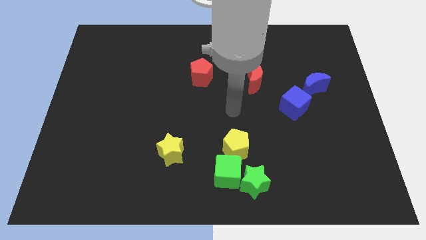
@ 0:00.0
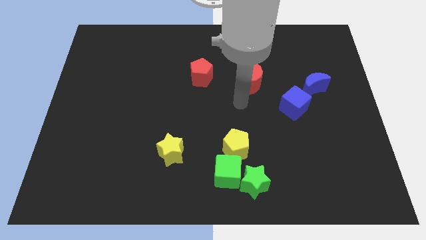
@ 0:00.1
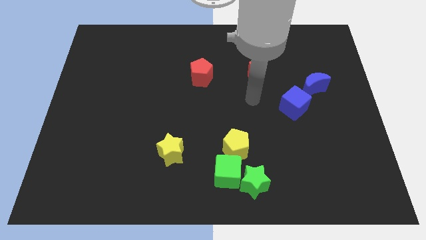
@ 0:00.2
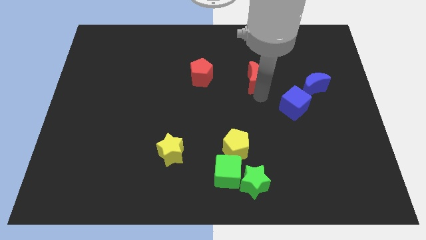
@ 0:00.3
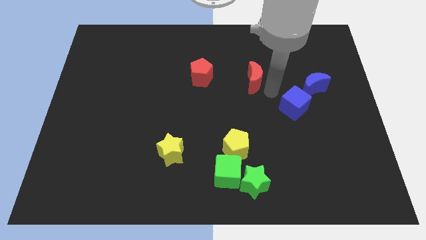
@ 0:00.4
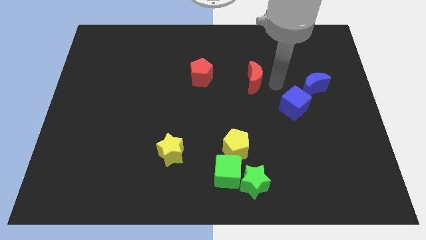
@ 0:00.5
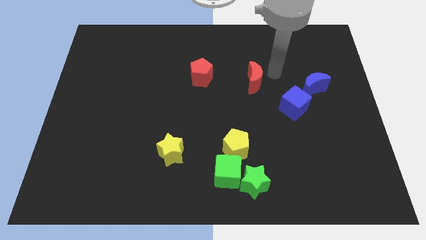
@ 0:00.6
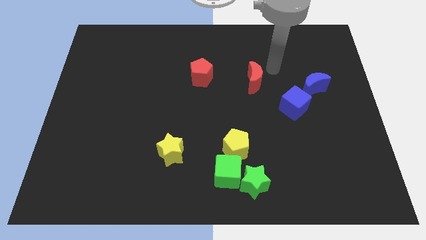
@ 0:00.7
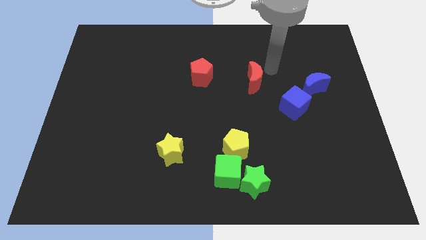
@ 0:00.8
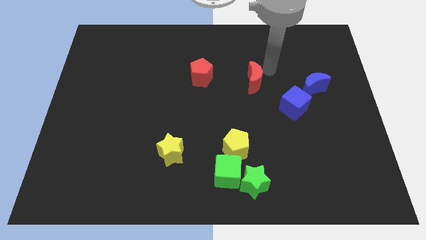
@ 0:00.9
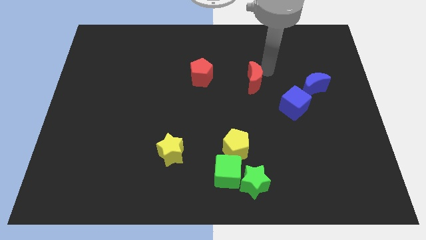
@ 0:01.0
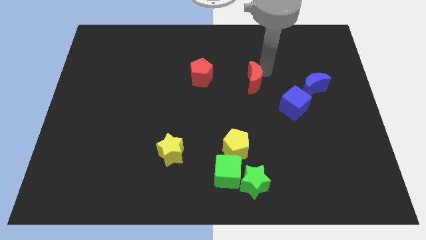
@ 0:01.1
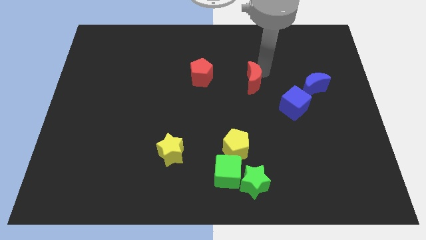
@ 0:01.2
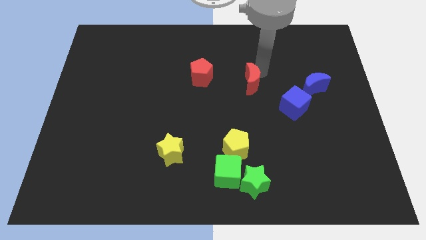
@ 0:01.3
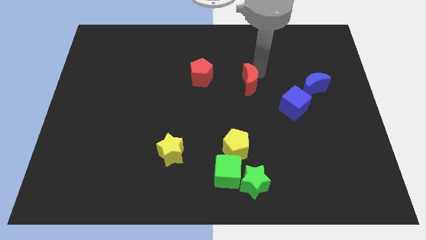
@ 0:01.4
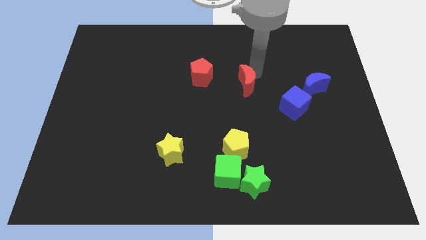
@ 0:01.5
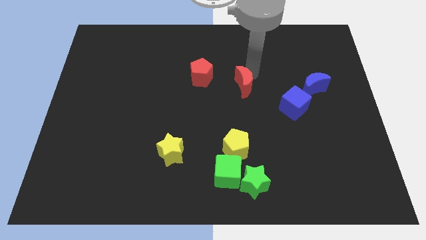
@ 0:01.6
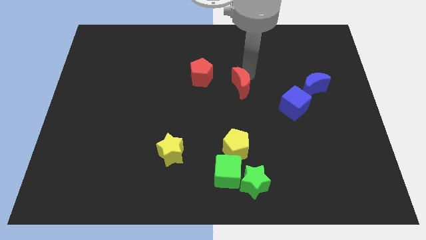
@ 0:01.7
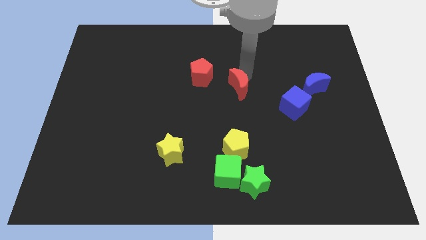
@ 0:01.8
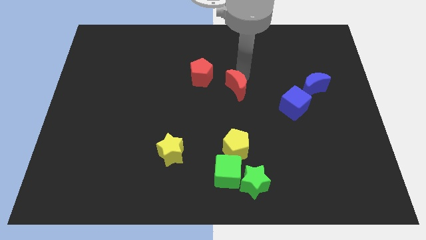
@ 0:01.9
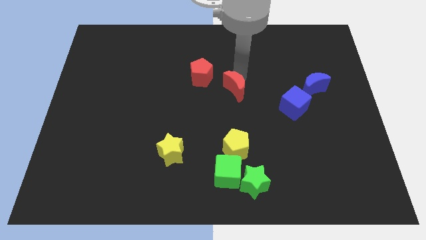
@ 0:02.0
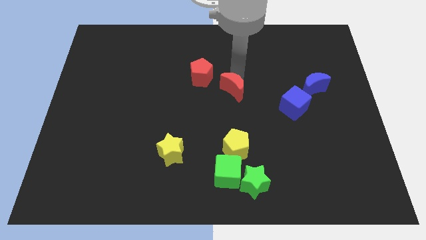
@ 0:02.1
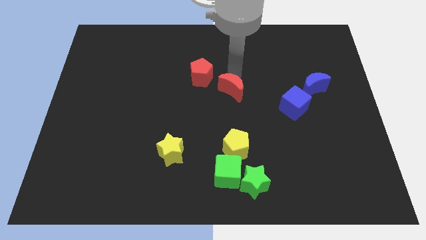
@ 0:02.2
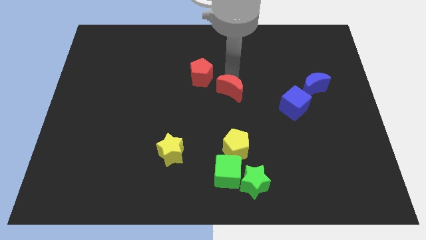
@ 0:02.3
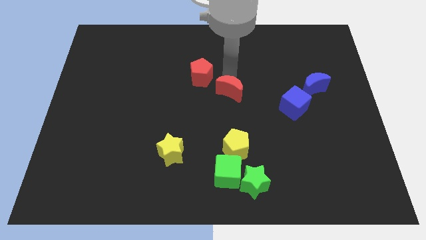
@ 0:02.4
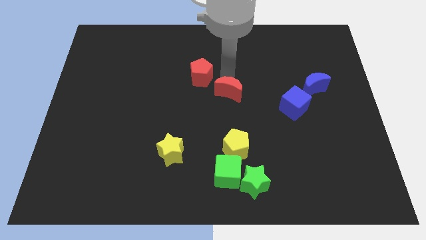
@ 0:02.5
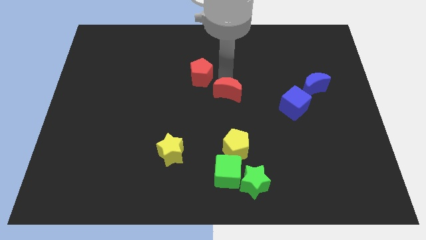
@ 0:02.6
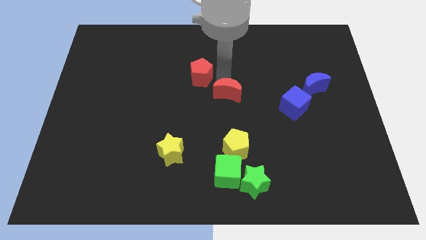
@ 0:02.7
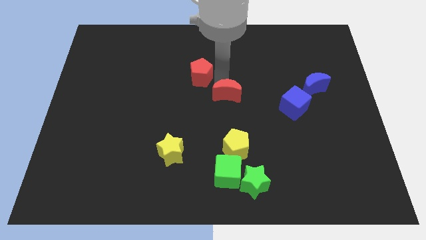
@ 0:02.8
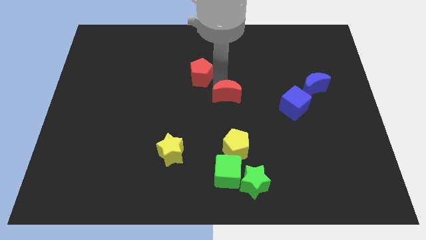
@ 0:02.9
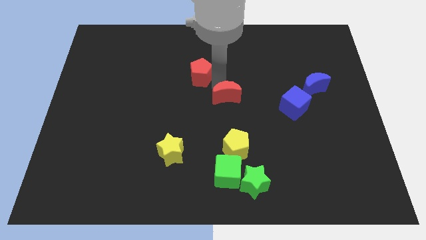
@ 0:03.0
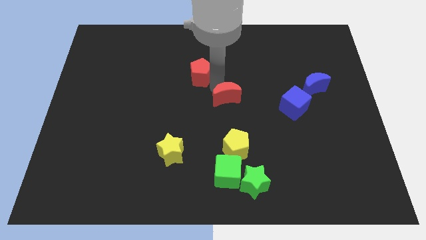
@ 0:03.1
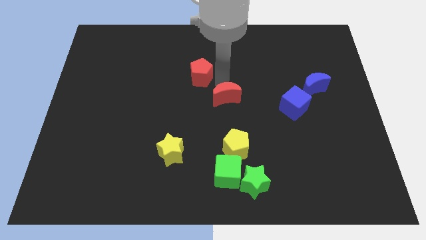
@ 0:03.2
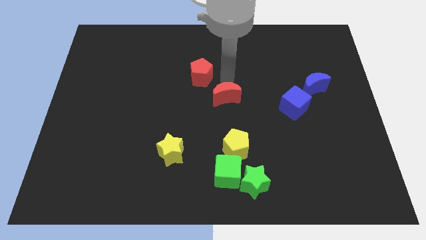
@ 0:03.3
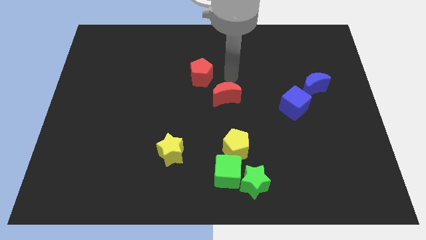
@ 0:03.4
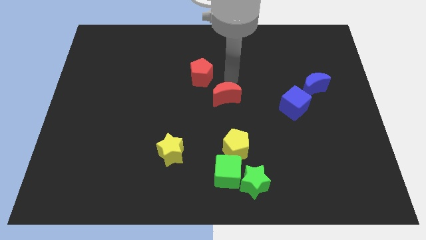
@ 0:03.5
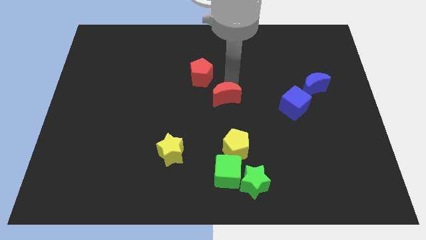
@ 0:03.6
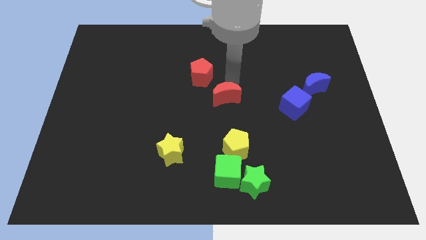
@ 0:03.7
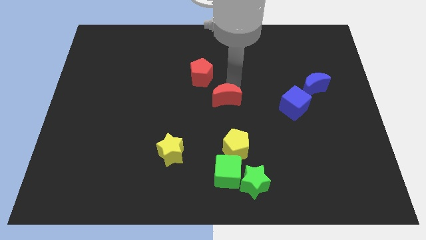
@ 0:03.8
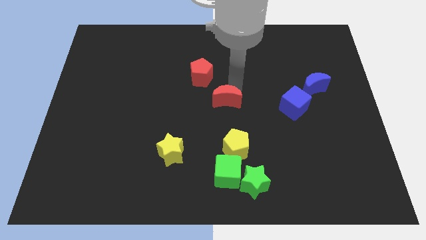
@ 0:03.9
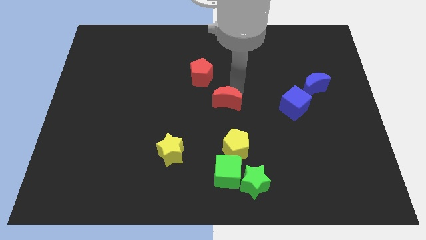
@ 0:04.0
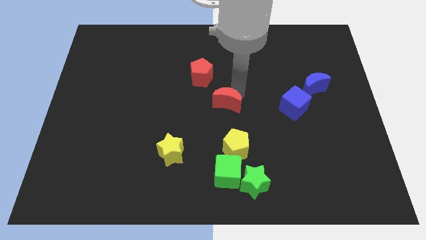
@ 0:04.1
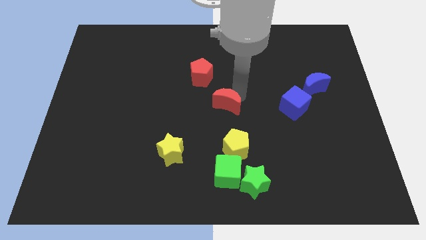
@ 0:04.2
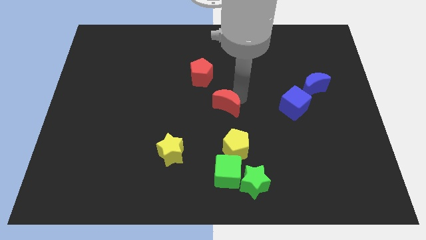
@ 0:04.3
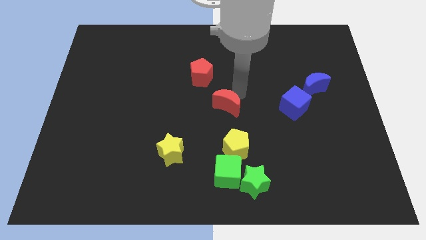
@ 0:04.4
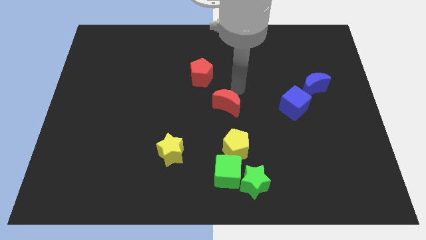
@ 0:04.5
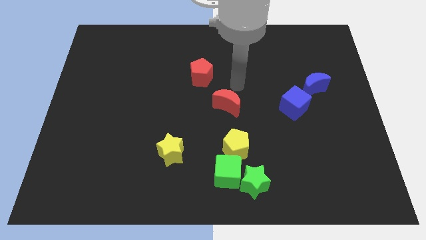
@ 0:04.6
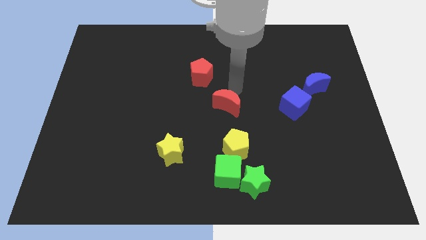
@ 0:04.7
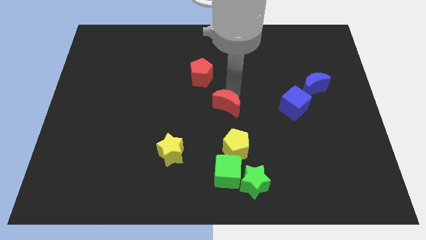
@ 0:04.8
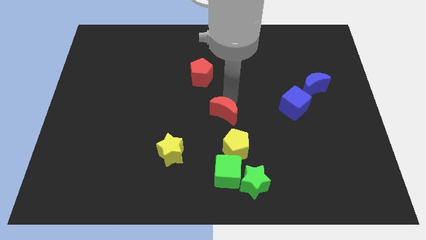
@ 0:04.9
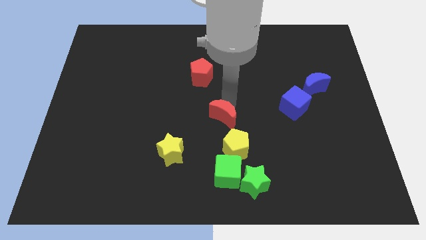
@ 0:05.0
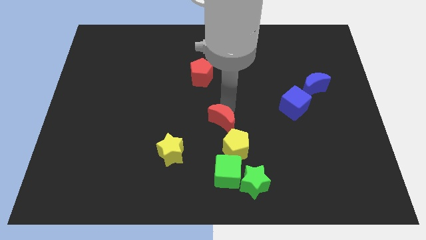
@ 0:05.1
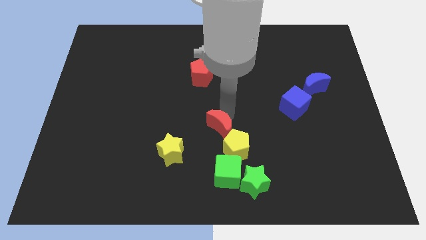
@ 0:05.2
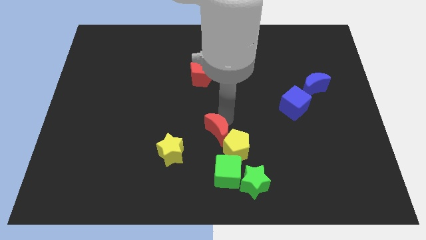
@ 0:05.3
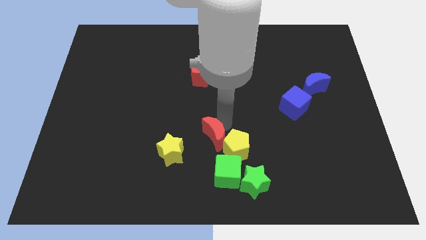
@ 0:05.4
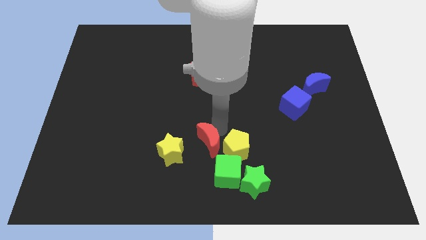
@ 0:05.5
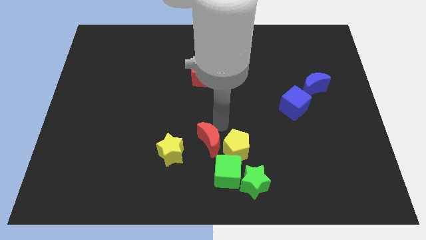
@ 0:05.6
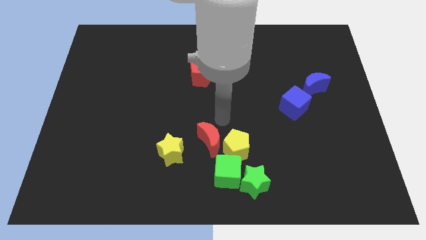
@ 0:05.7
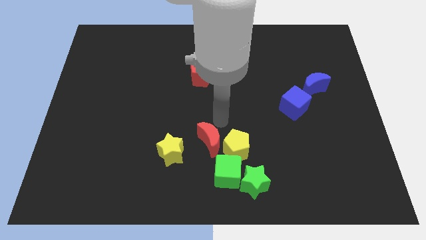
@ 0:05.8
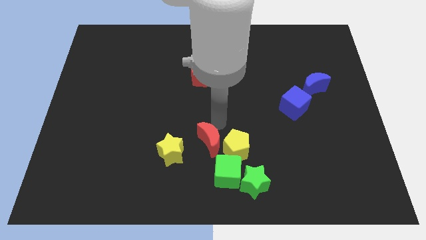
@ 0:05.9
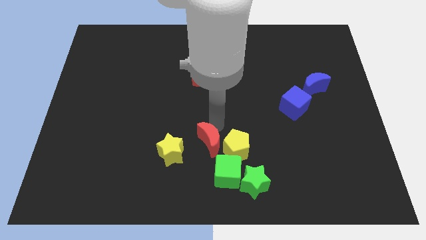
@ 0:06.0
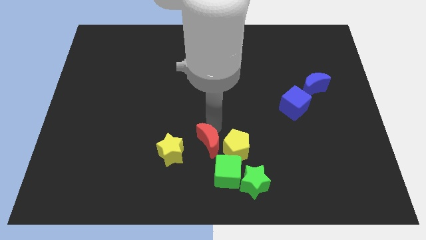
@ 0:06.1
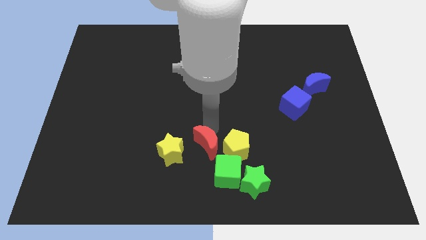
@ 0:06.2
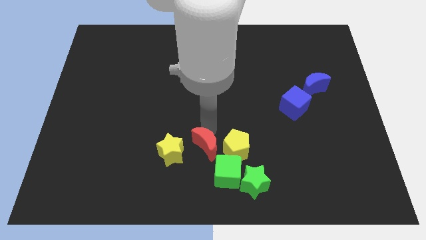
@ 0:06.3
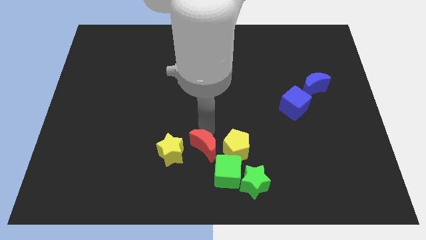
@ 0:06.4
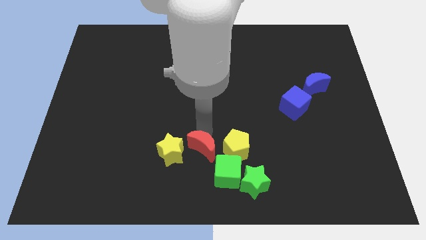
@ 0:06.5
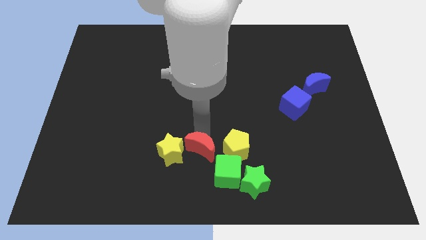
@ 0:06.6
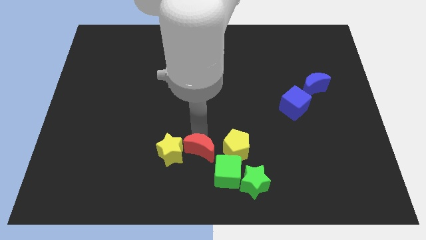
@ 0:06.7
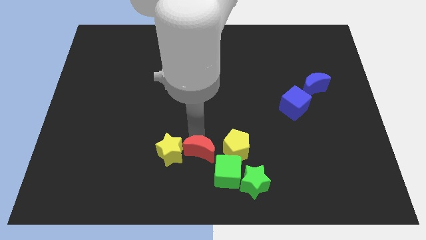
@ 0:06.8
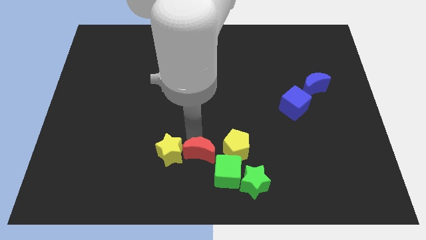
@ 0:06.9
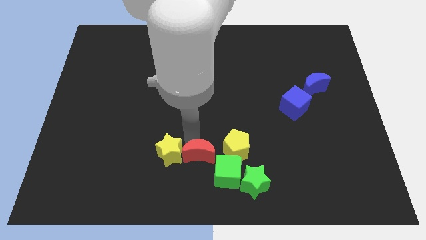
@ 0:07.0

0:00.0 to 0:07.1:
push the red moon to the bottom
